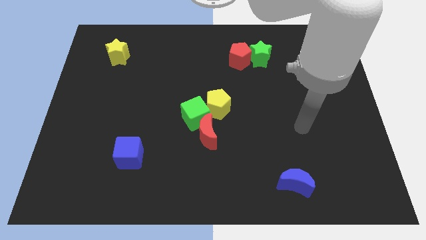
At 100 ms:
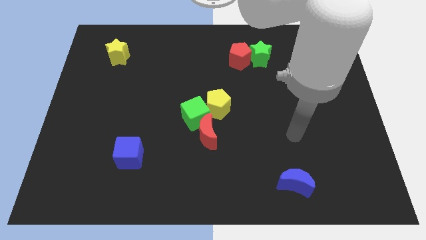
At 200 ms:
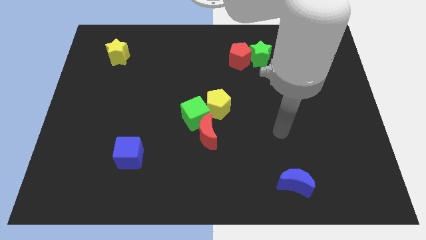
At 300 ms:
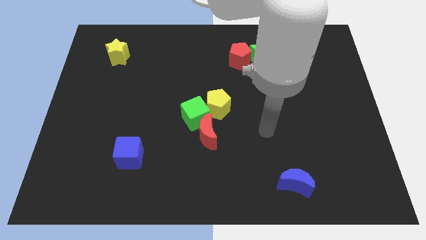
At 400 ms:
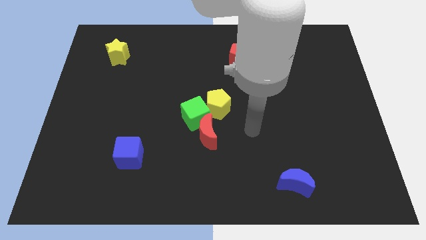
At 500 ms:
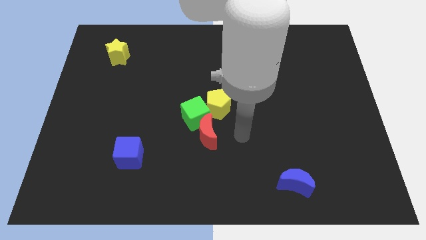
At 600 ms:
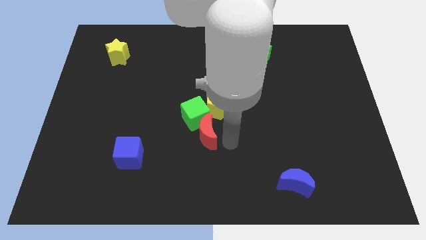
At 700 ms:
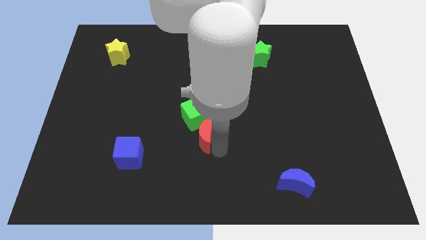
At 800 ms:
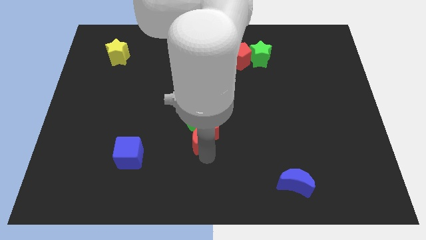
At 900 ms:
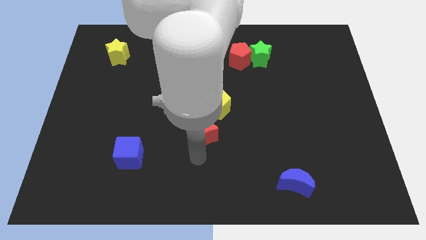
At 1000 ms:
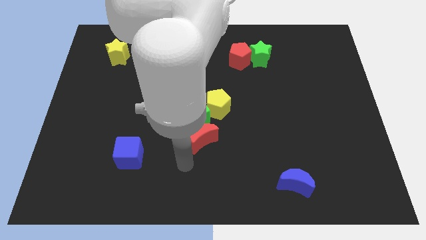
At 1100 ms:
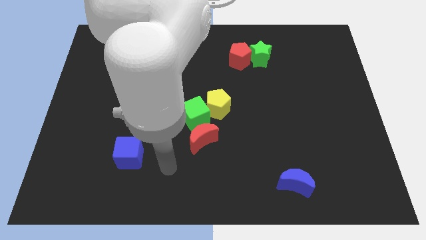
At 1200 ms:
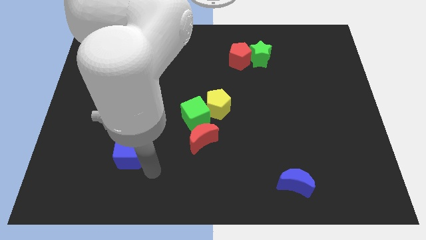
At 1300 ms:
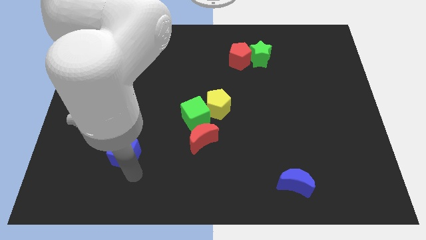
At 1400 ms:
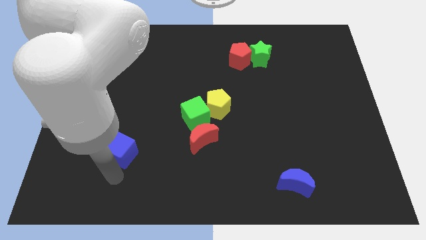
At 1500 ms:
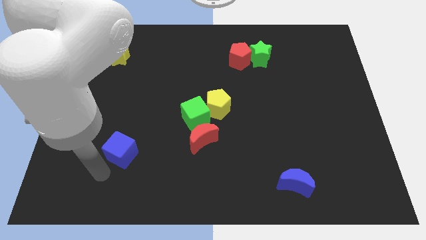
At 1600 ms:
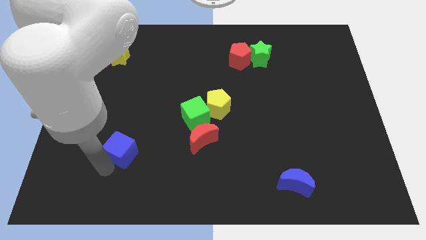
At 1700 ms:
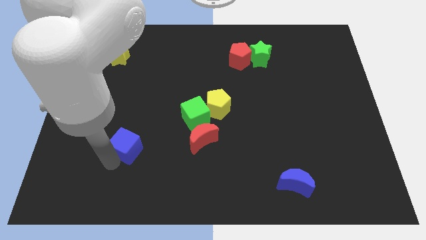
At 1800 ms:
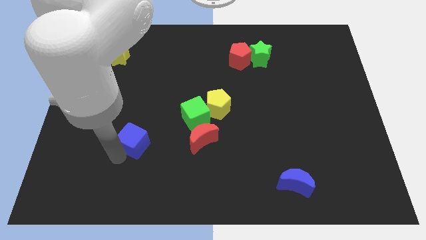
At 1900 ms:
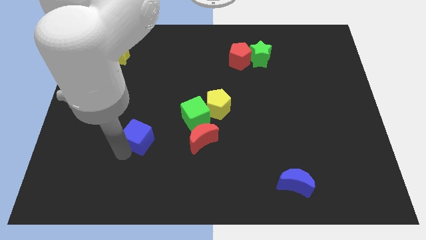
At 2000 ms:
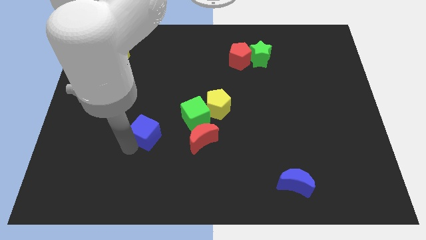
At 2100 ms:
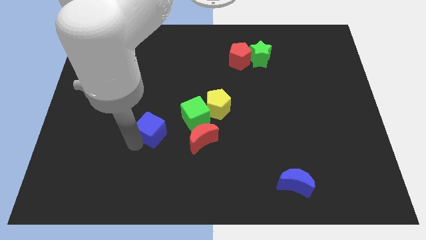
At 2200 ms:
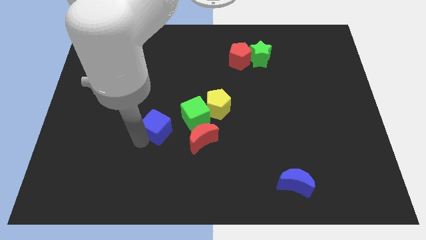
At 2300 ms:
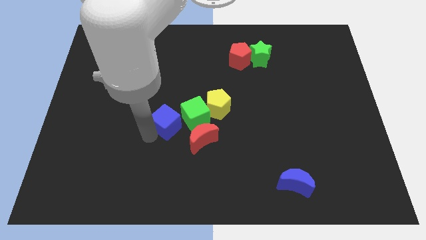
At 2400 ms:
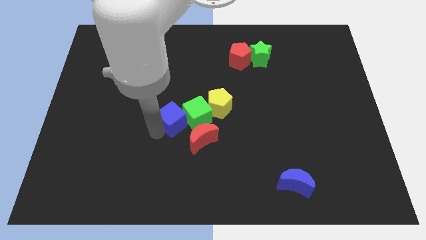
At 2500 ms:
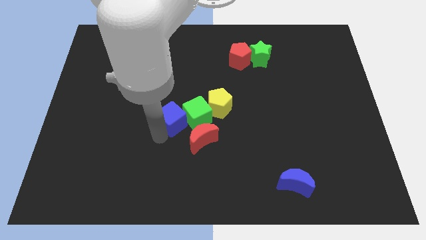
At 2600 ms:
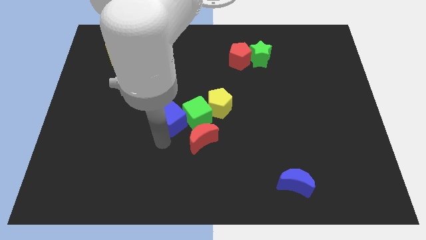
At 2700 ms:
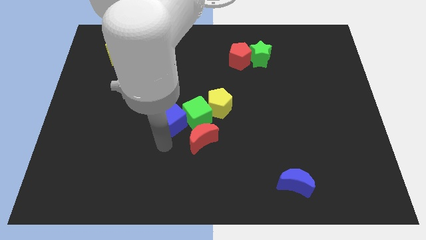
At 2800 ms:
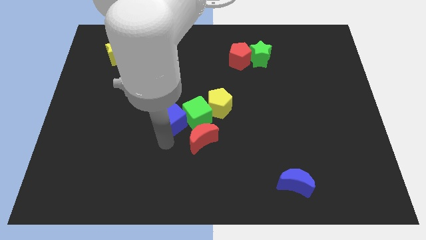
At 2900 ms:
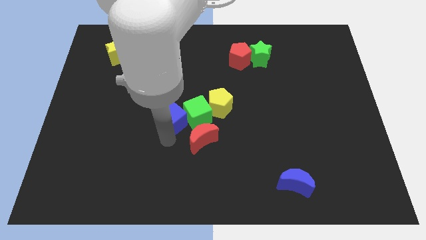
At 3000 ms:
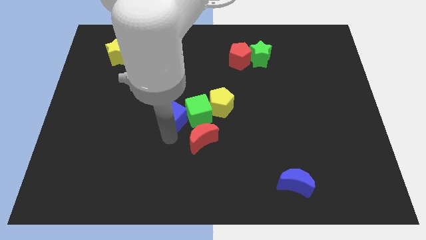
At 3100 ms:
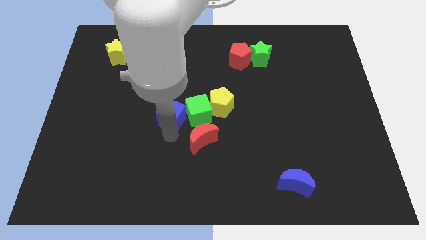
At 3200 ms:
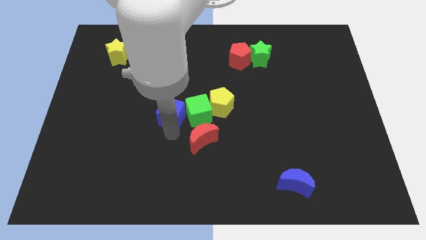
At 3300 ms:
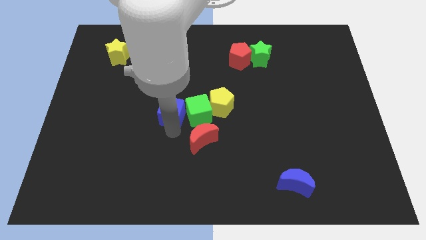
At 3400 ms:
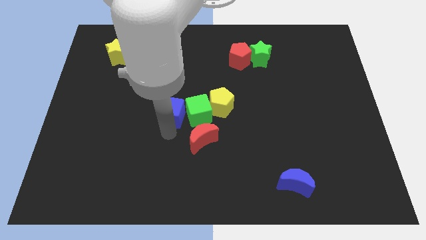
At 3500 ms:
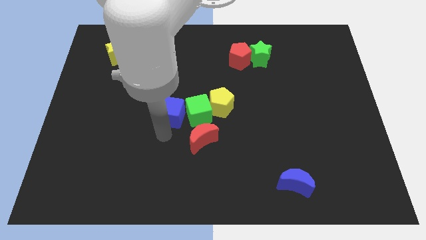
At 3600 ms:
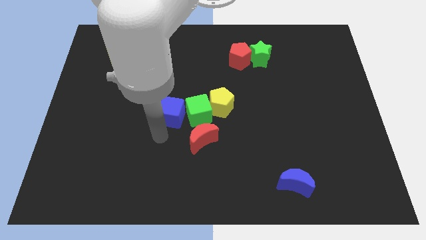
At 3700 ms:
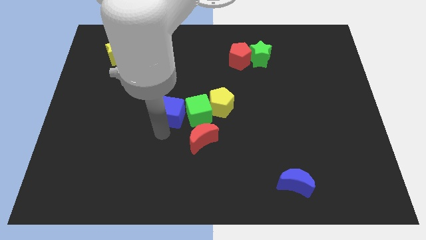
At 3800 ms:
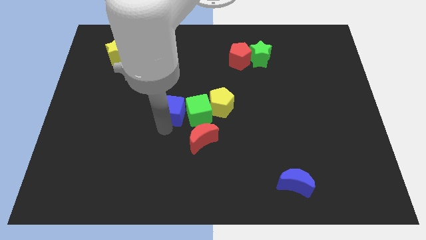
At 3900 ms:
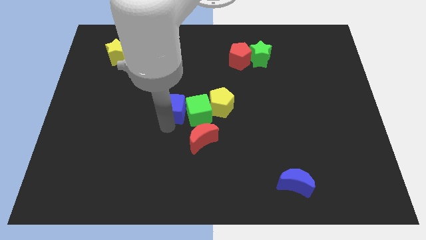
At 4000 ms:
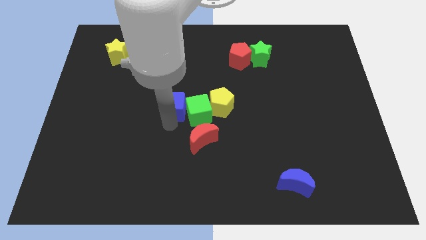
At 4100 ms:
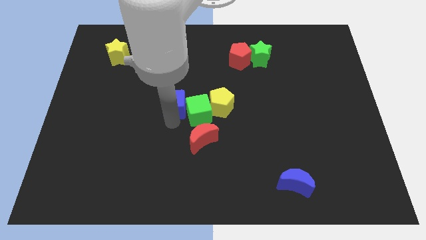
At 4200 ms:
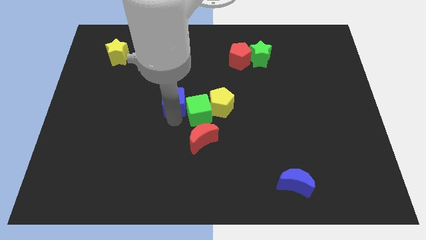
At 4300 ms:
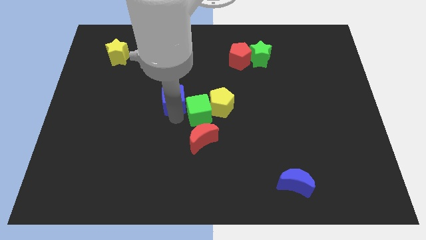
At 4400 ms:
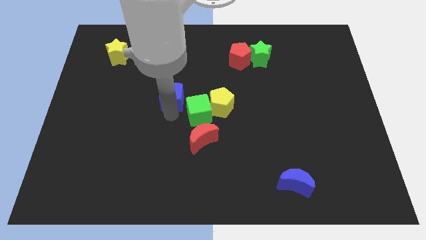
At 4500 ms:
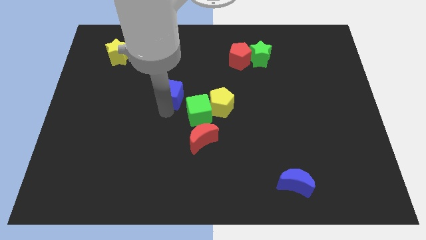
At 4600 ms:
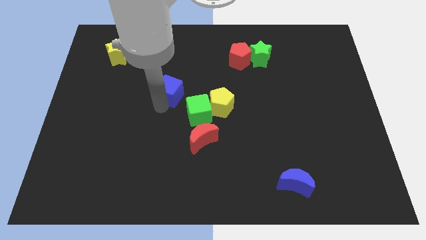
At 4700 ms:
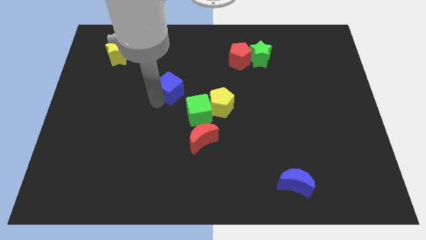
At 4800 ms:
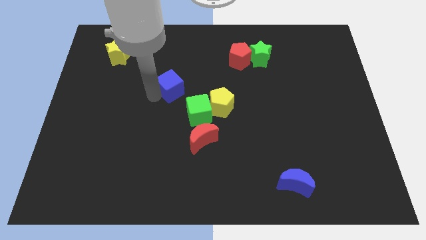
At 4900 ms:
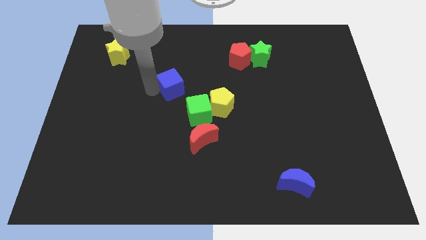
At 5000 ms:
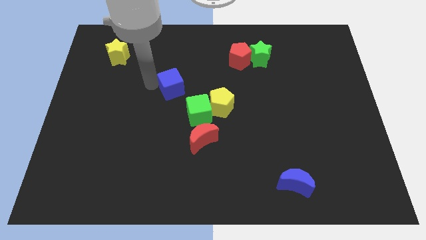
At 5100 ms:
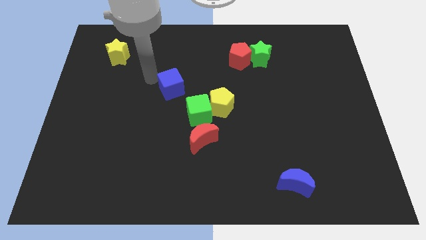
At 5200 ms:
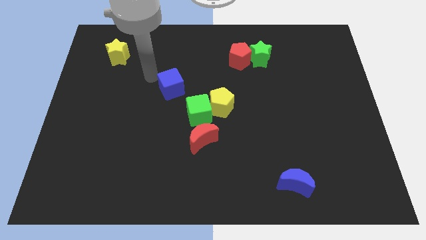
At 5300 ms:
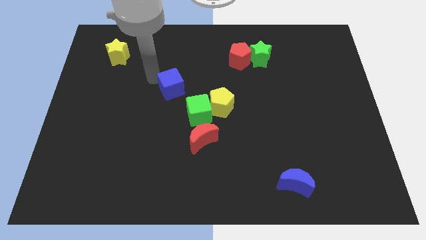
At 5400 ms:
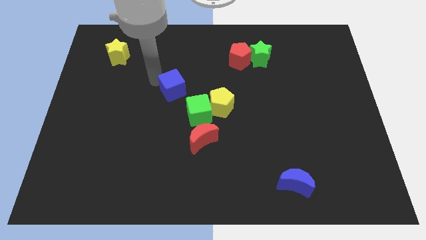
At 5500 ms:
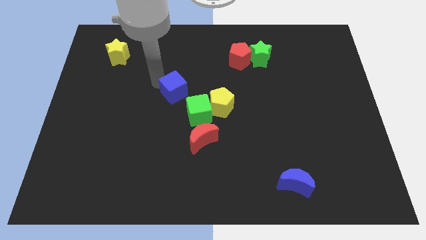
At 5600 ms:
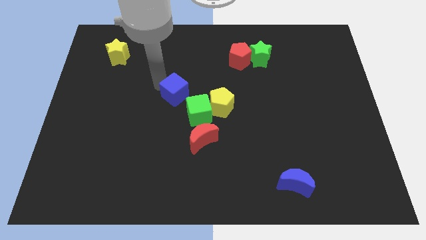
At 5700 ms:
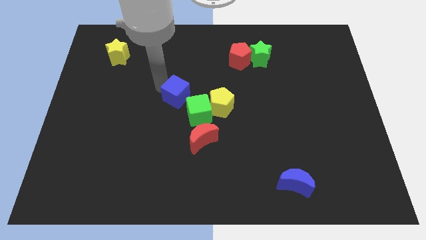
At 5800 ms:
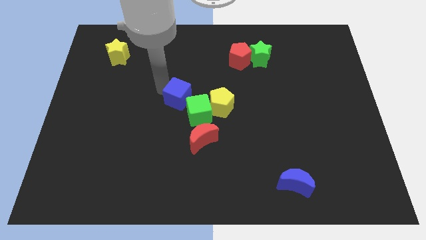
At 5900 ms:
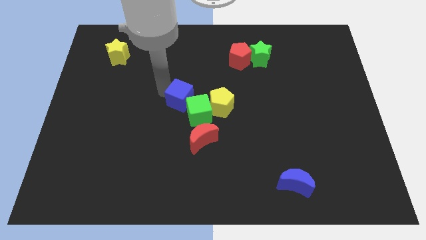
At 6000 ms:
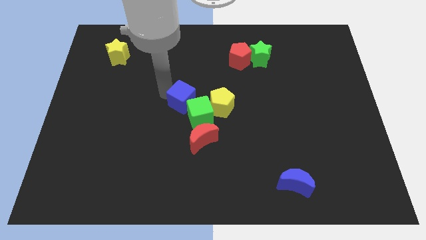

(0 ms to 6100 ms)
put the blue cube above the red moon

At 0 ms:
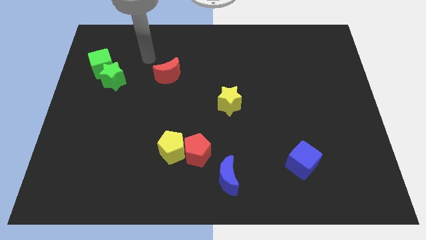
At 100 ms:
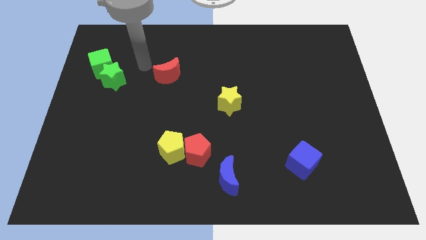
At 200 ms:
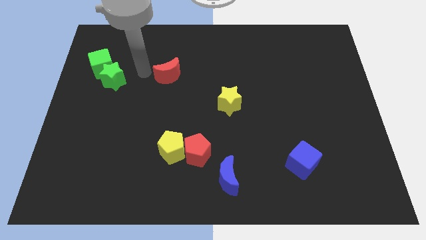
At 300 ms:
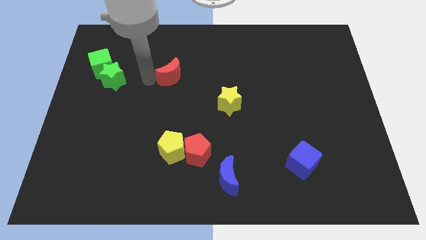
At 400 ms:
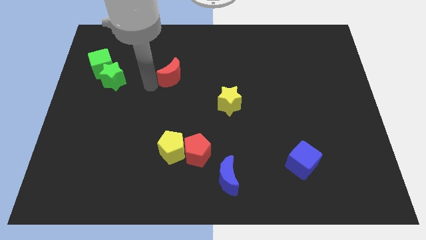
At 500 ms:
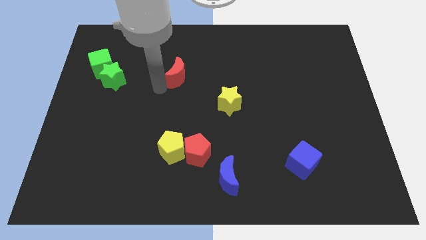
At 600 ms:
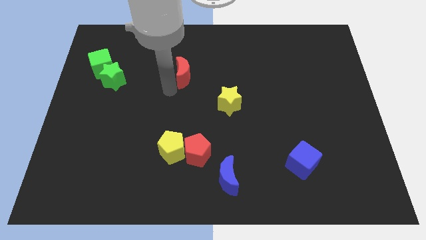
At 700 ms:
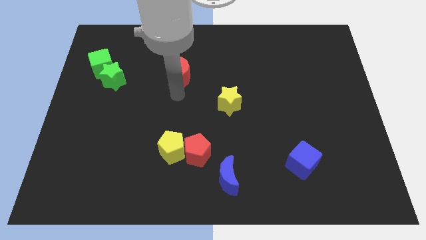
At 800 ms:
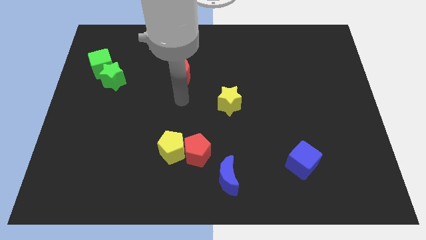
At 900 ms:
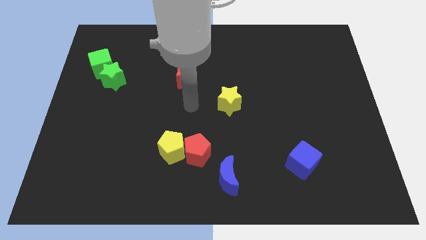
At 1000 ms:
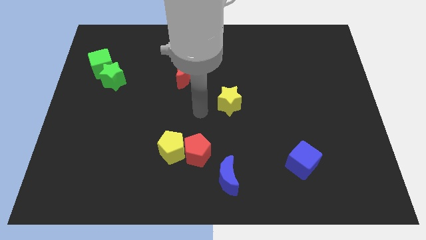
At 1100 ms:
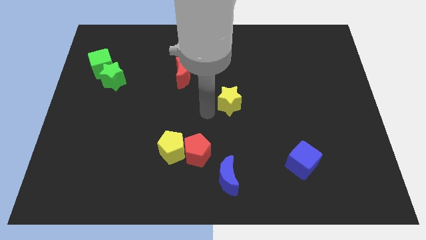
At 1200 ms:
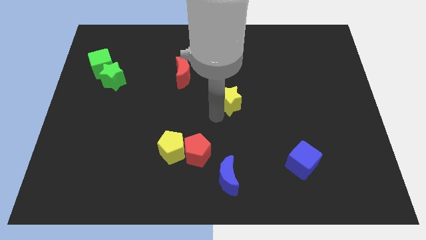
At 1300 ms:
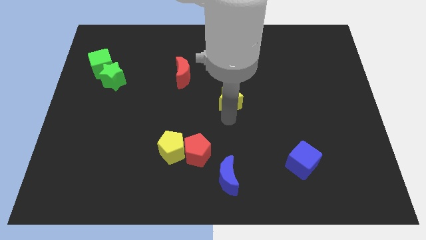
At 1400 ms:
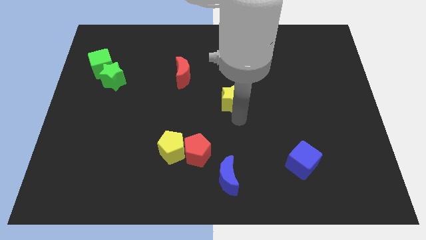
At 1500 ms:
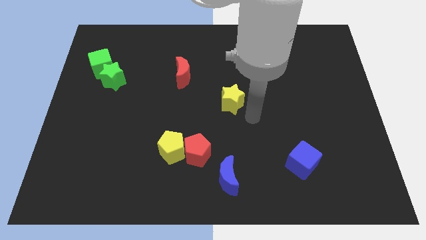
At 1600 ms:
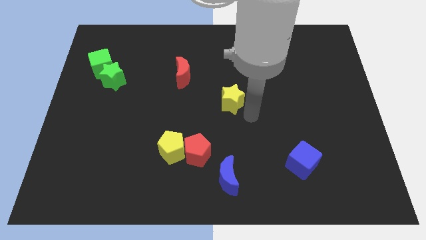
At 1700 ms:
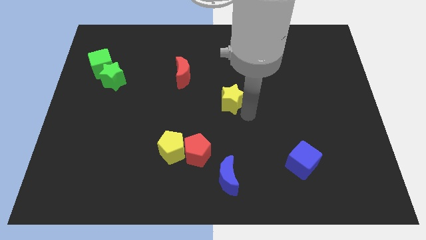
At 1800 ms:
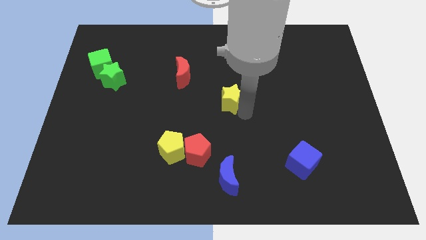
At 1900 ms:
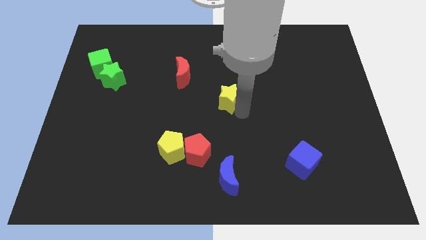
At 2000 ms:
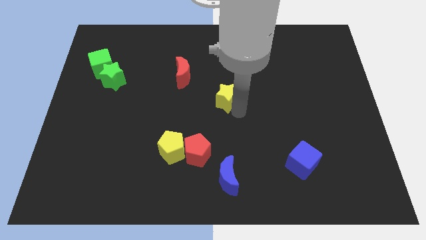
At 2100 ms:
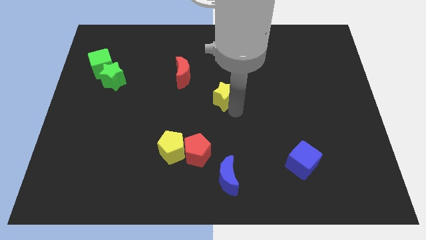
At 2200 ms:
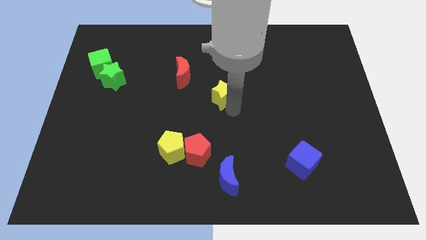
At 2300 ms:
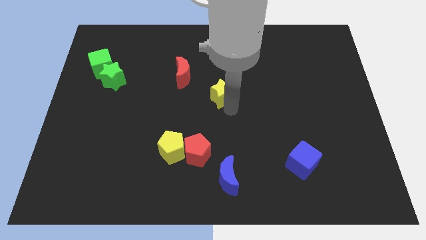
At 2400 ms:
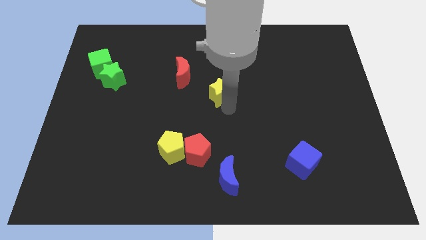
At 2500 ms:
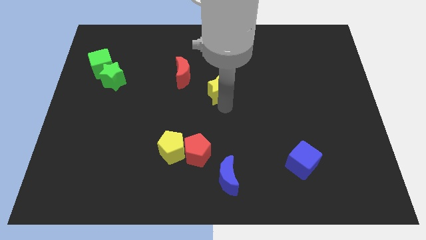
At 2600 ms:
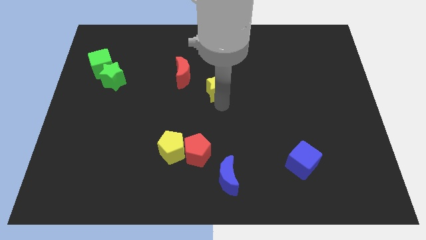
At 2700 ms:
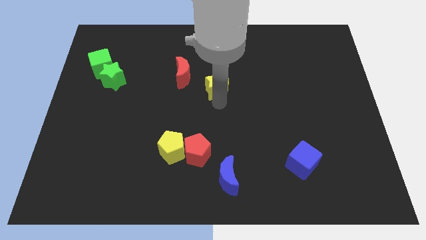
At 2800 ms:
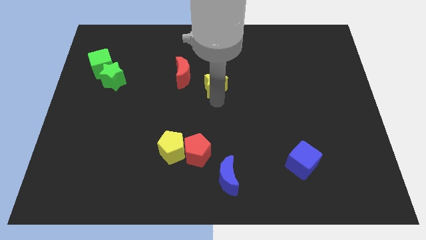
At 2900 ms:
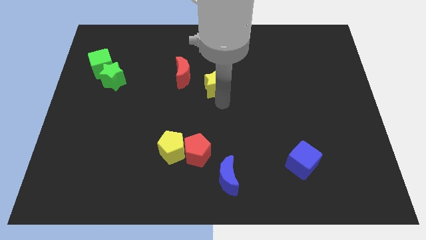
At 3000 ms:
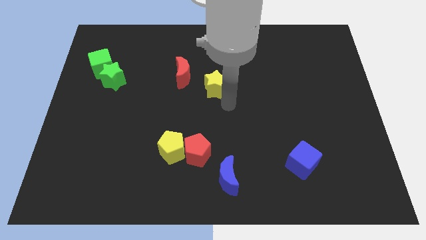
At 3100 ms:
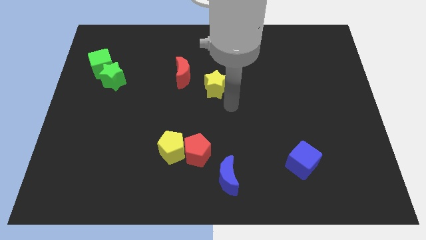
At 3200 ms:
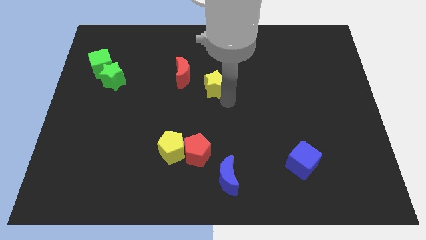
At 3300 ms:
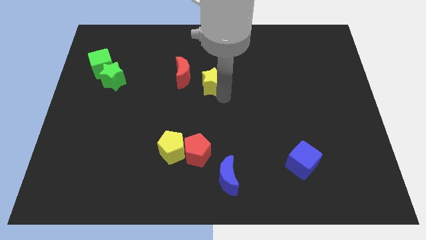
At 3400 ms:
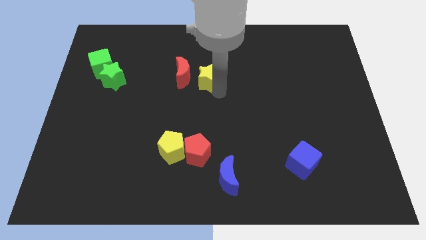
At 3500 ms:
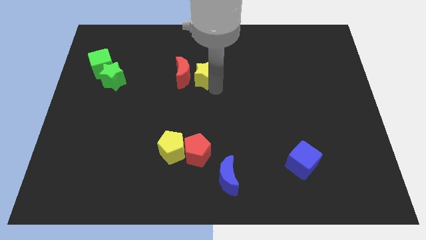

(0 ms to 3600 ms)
move the yellow star to the top right side of the red moon
